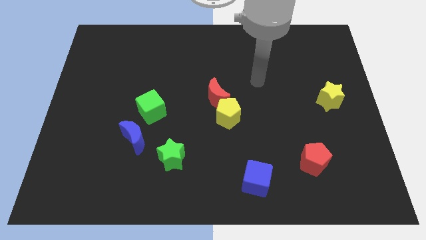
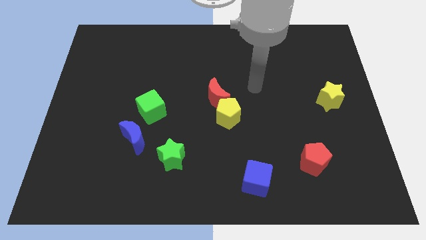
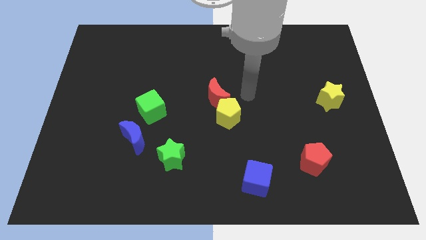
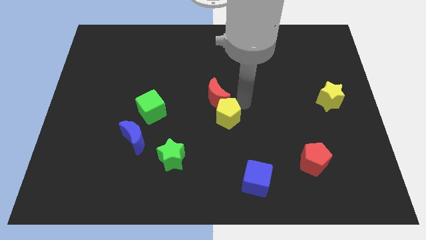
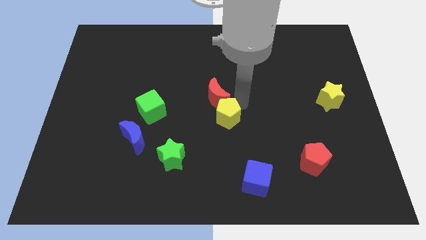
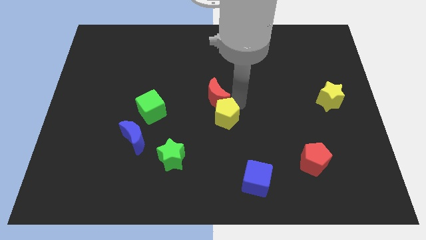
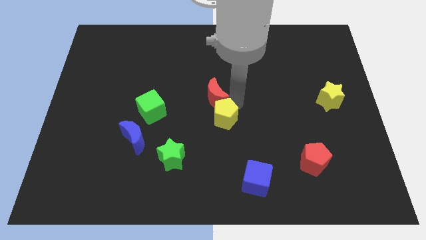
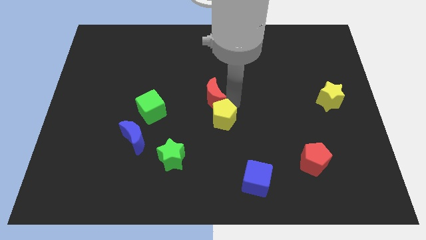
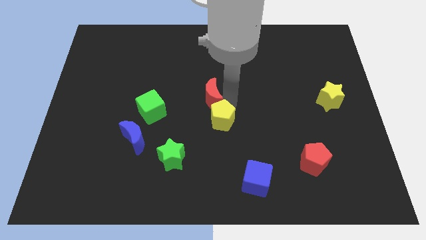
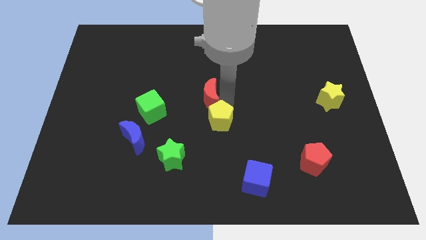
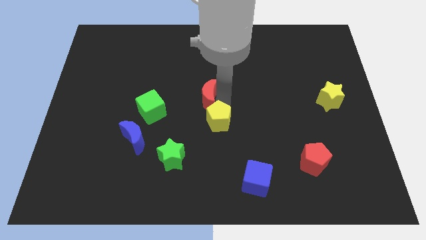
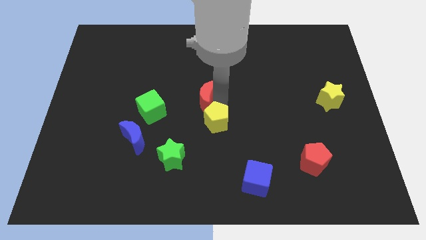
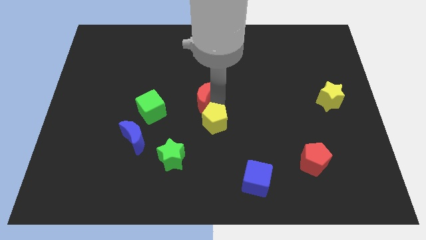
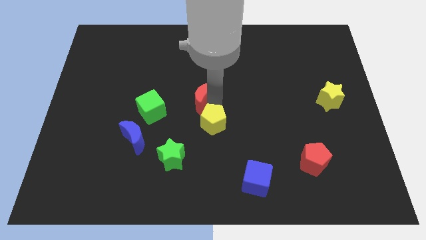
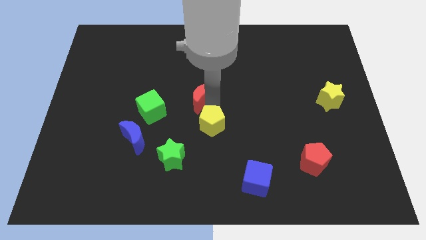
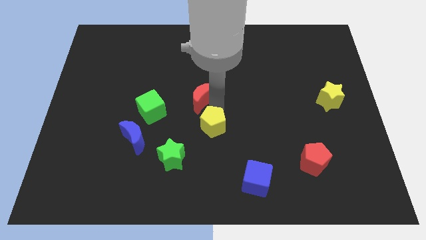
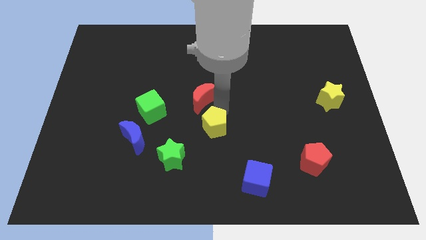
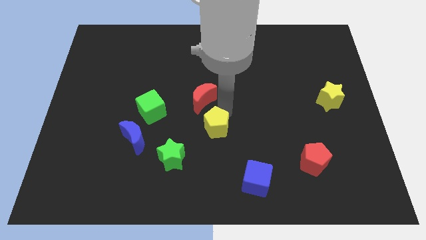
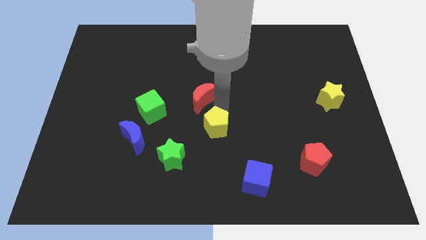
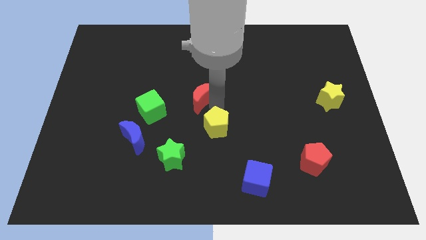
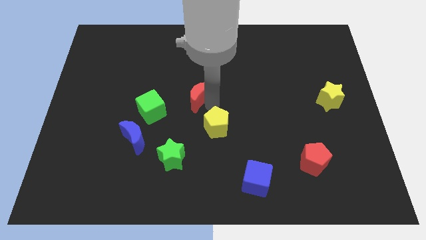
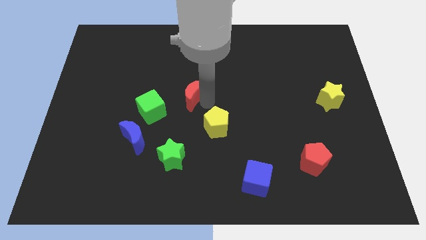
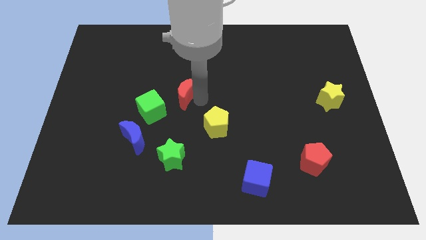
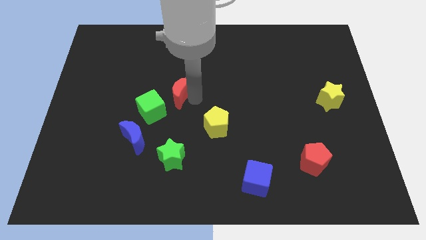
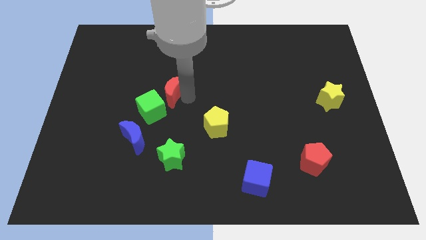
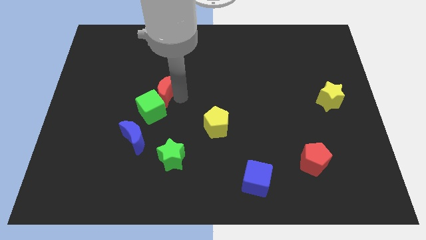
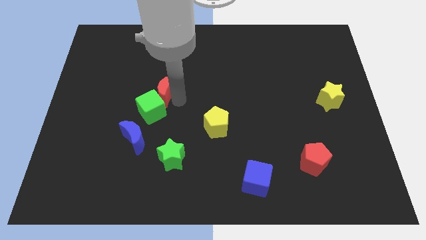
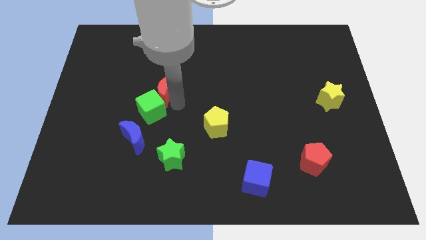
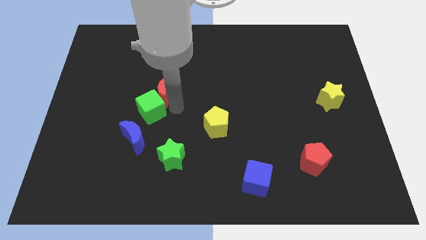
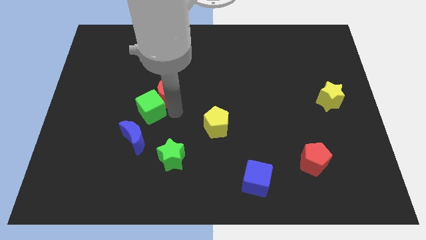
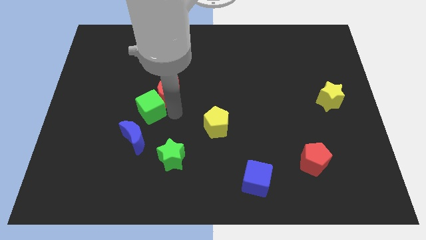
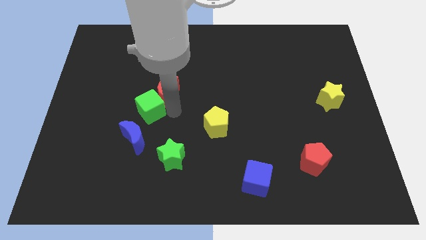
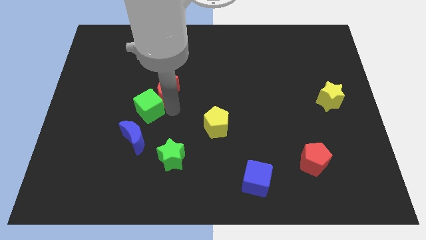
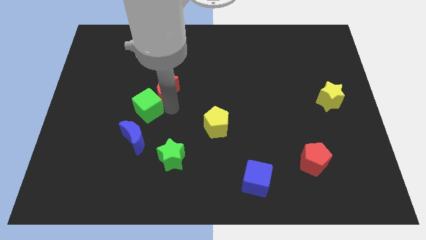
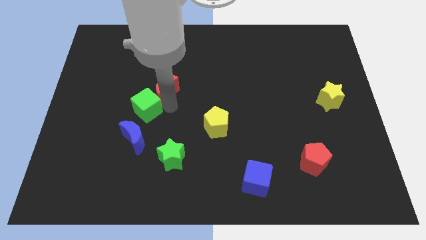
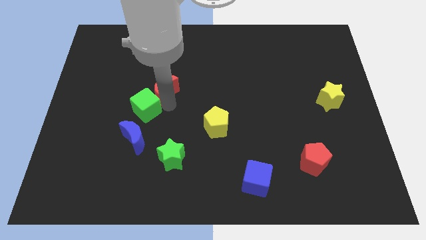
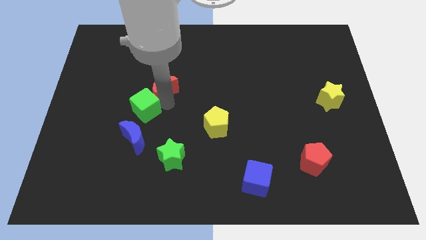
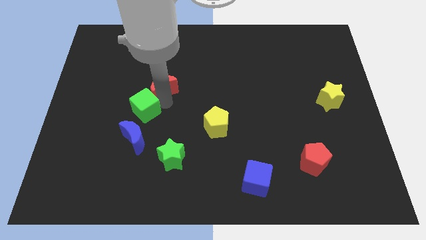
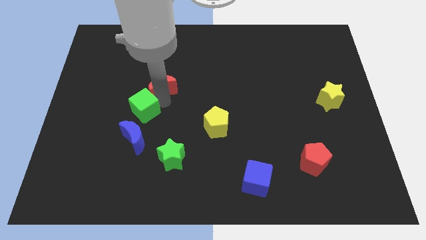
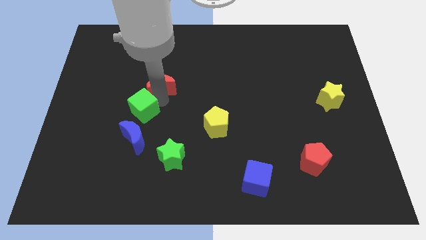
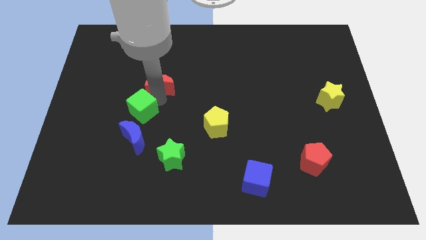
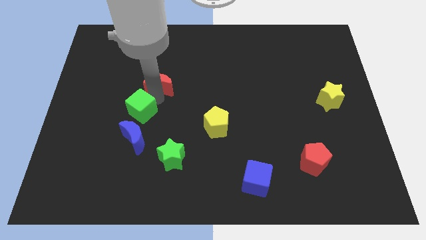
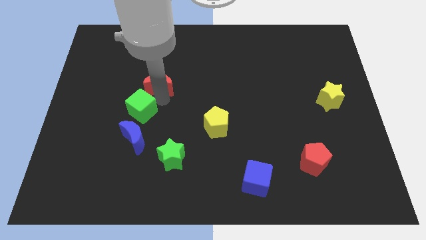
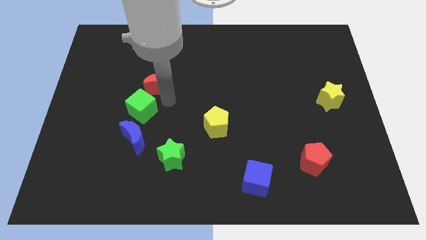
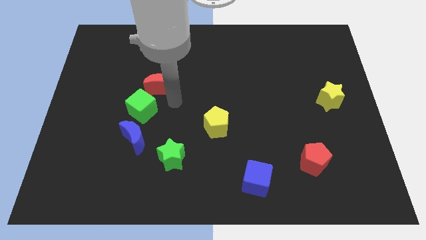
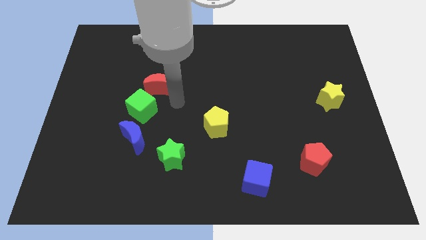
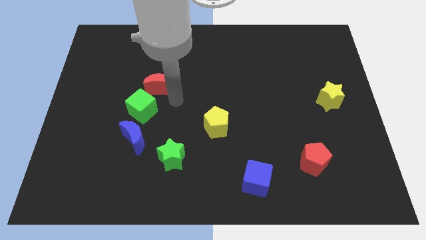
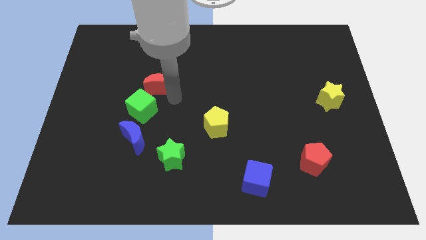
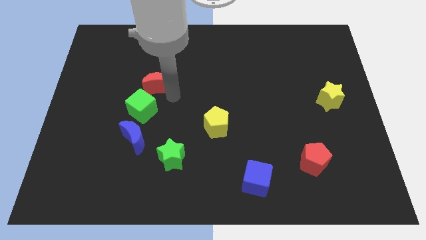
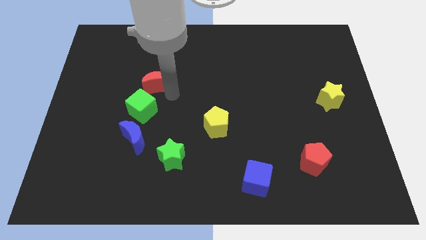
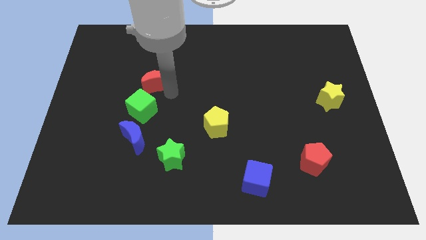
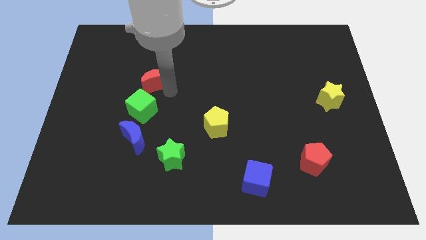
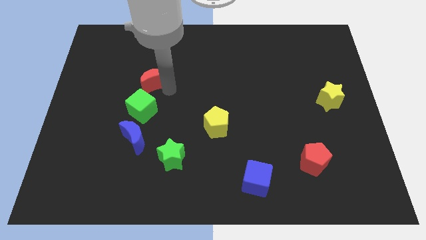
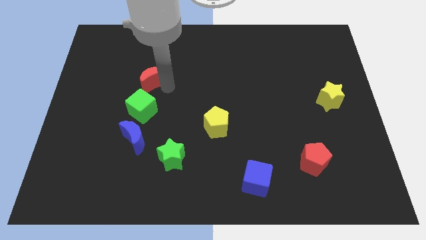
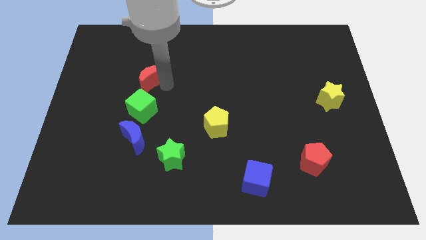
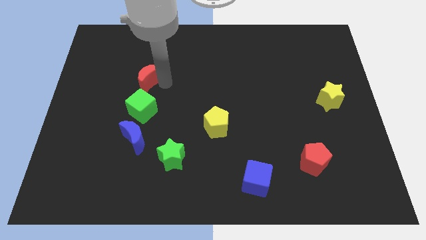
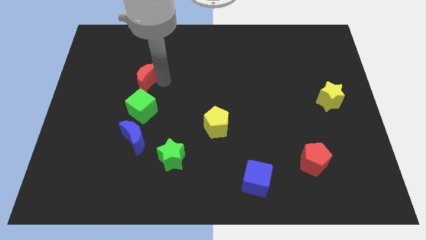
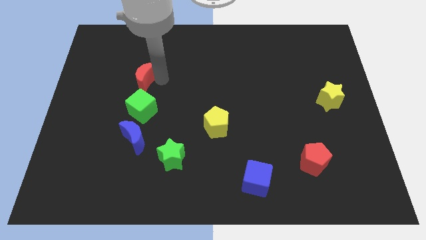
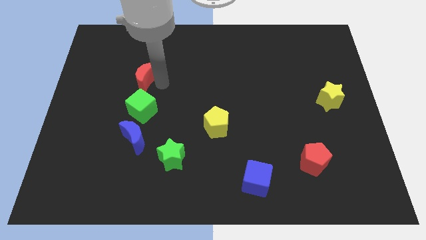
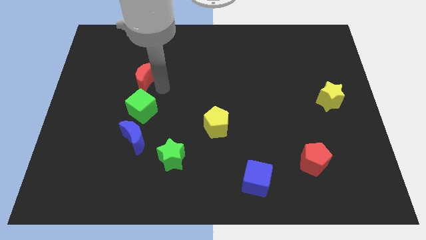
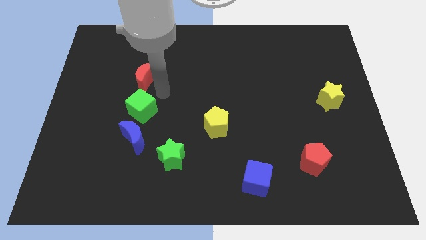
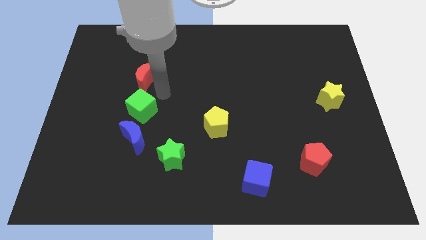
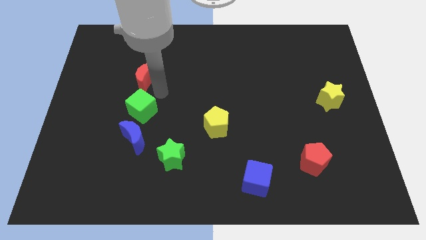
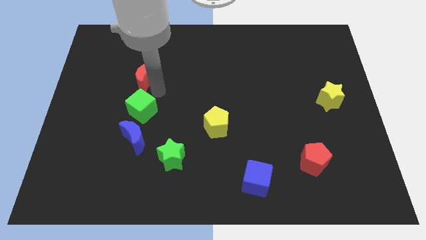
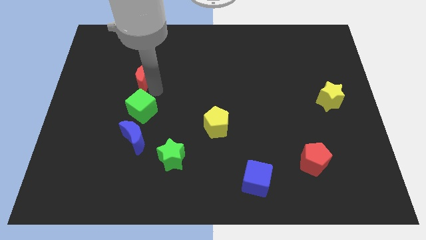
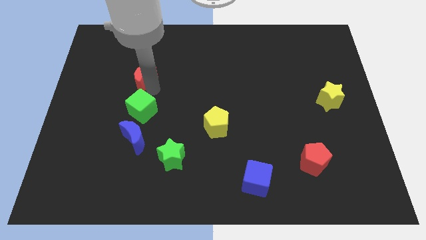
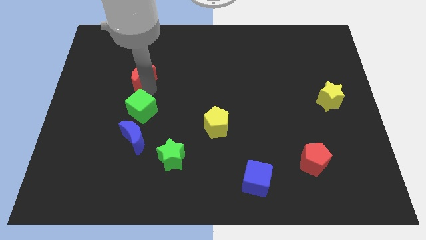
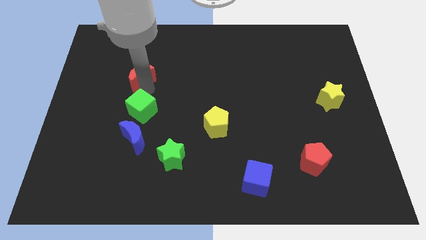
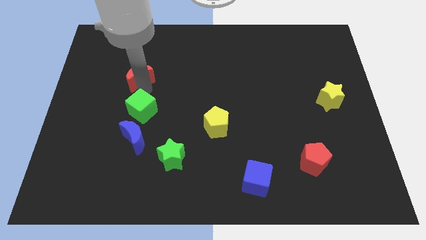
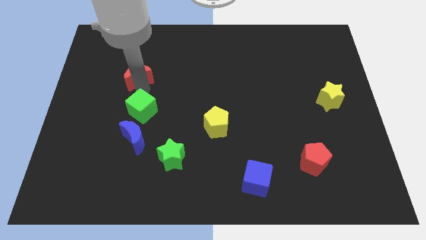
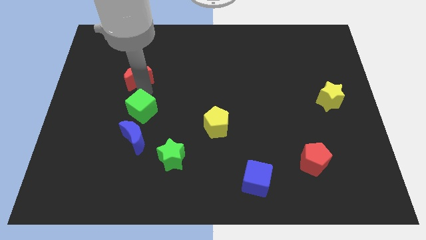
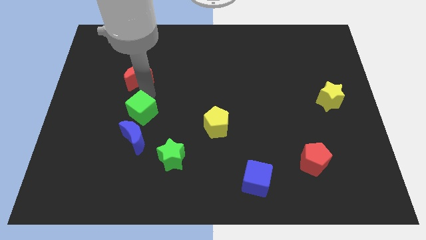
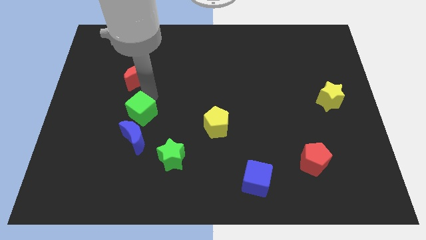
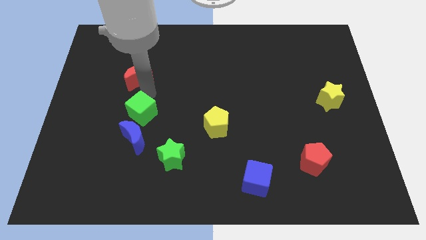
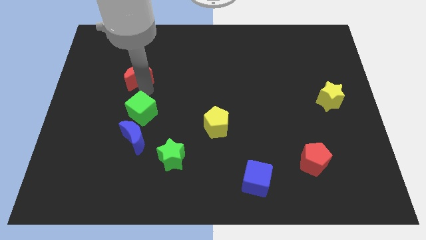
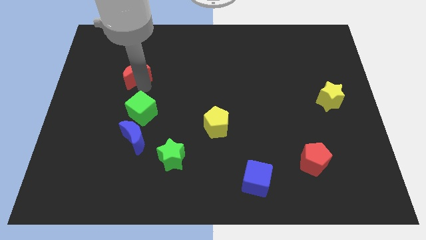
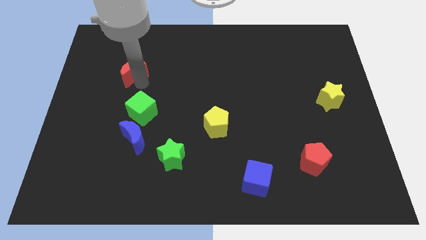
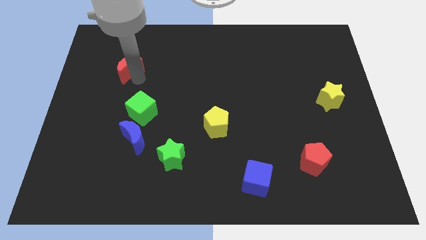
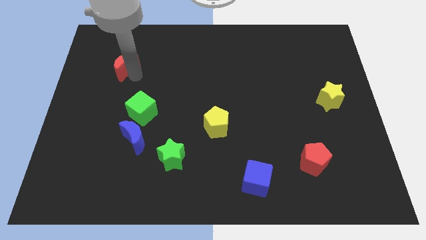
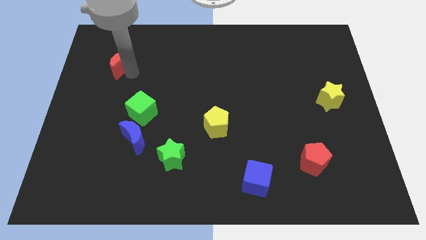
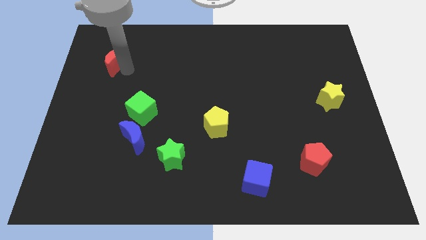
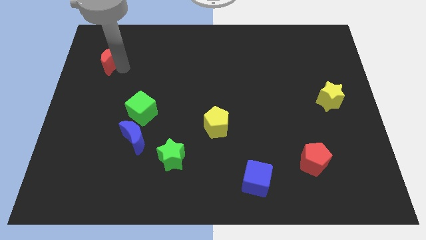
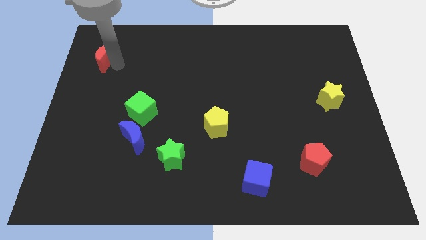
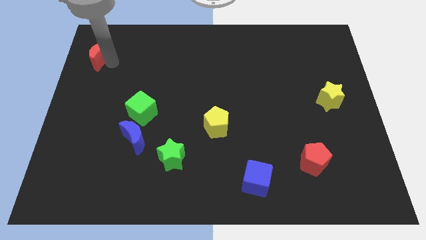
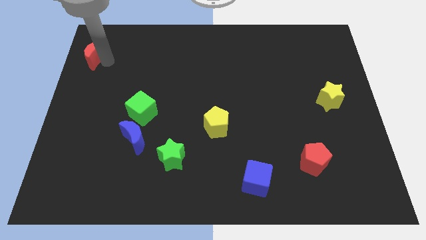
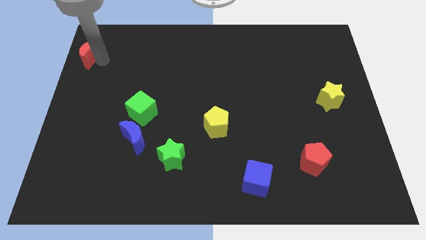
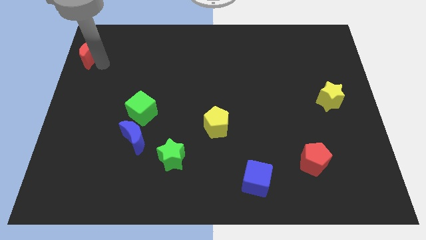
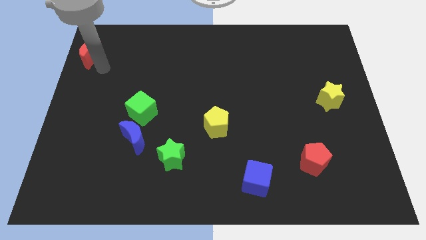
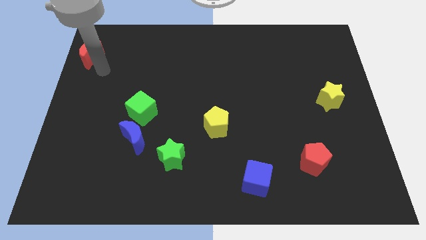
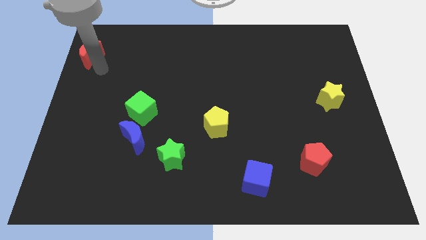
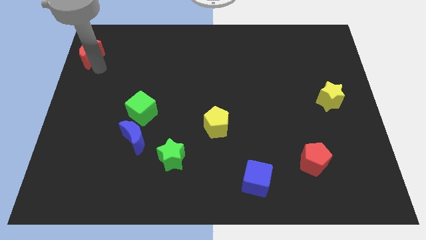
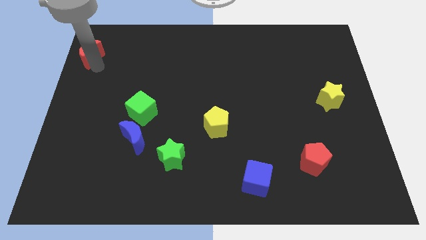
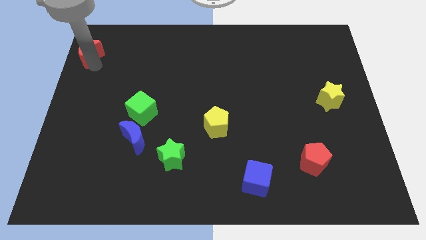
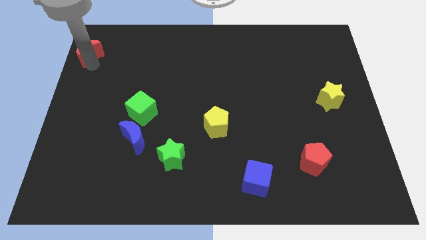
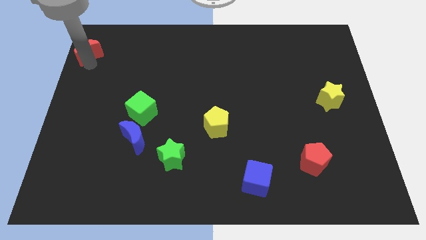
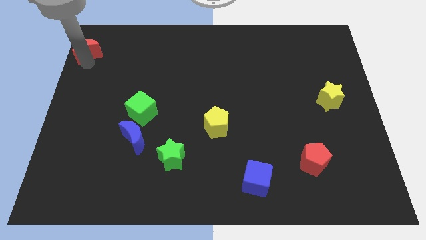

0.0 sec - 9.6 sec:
push the red moon to the upper left corner
